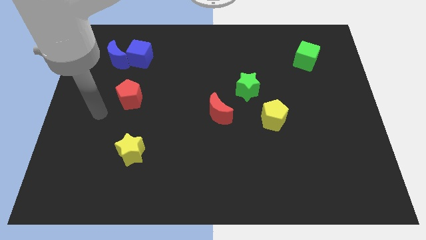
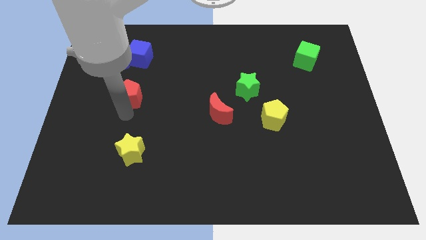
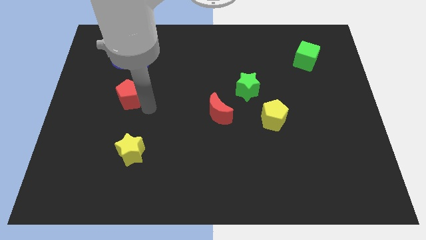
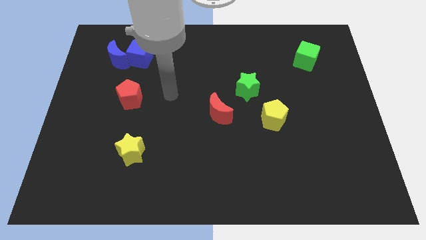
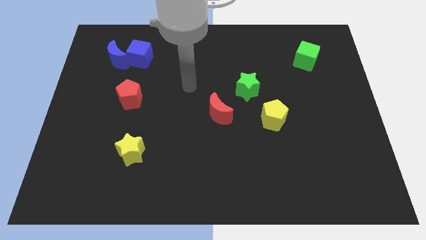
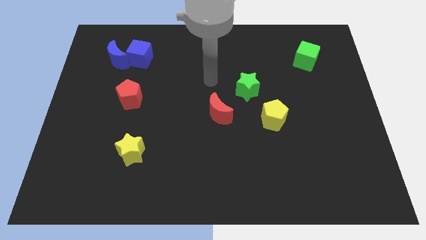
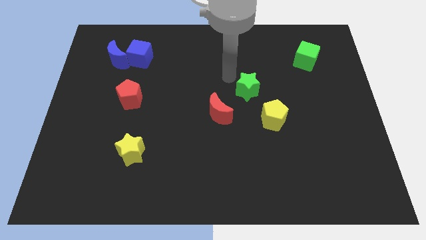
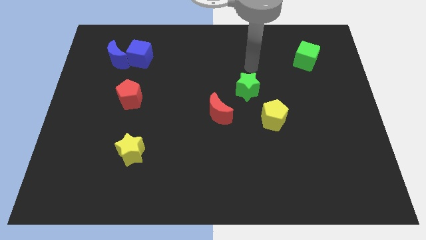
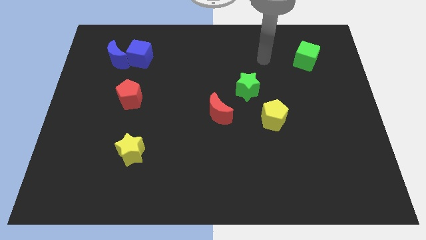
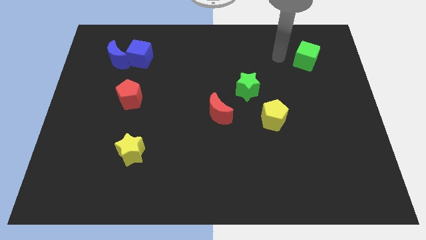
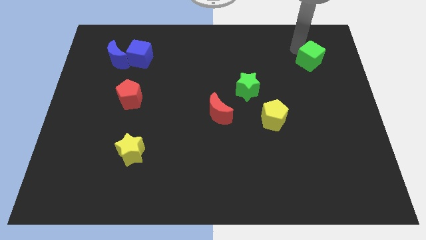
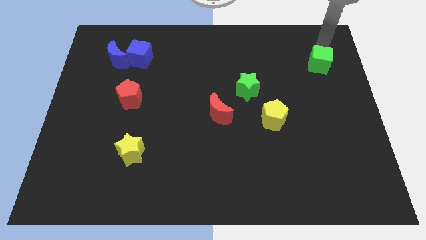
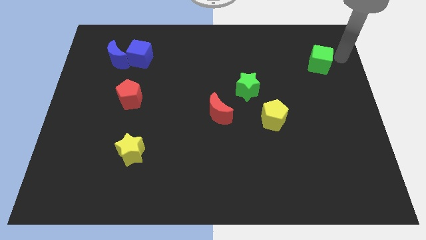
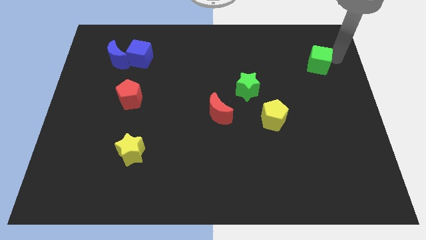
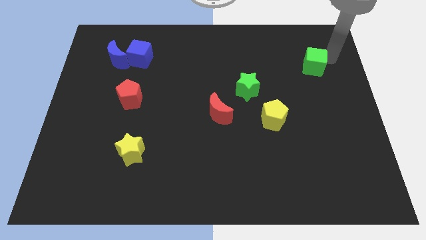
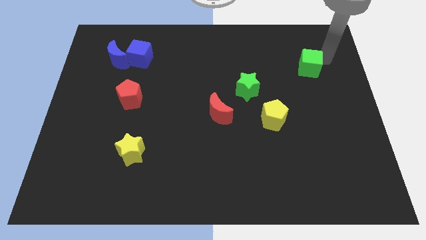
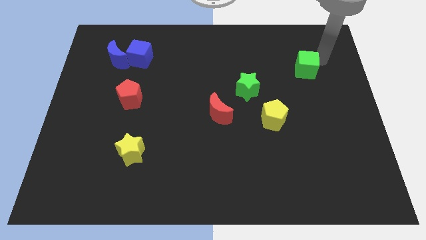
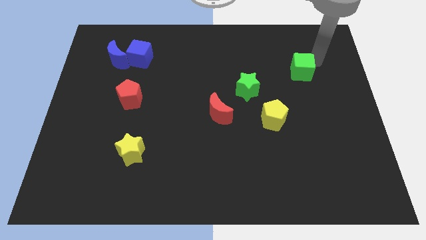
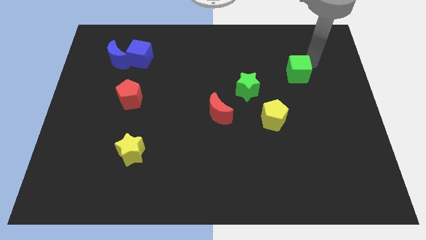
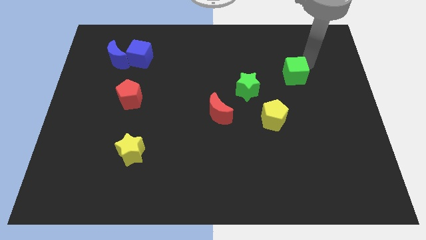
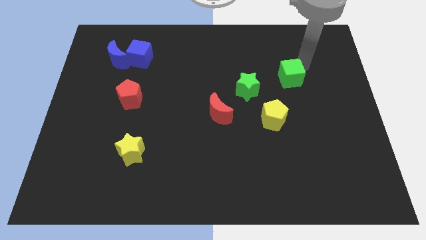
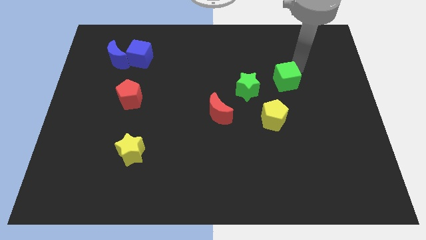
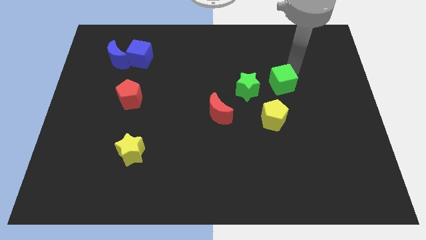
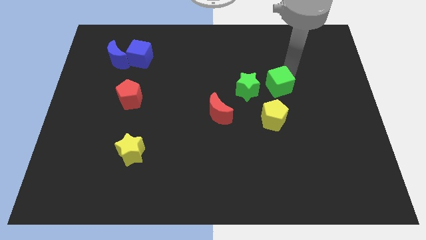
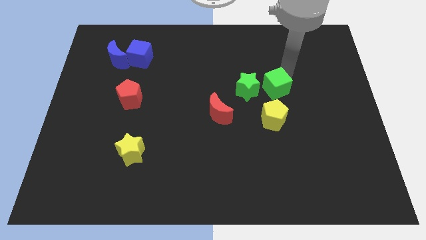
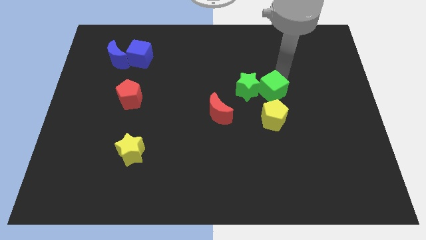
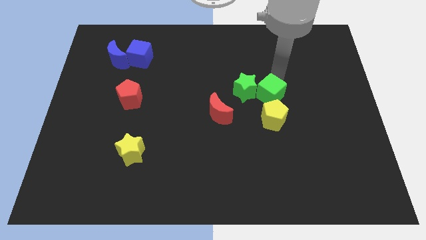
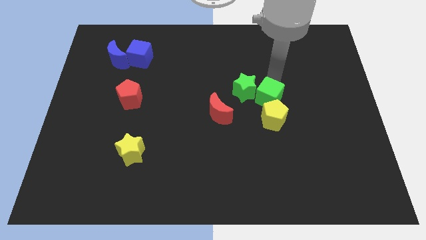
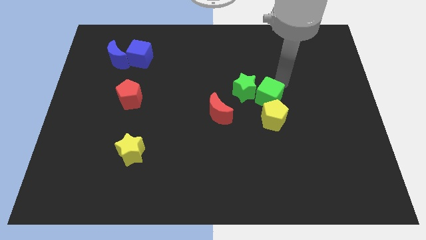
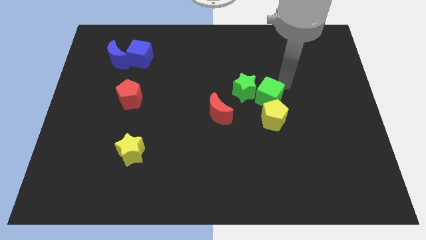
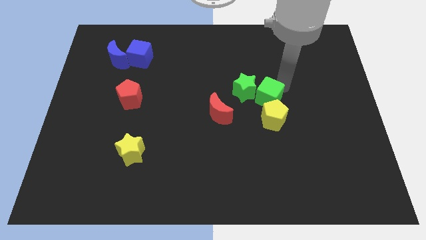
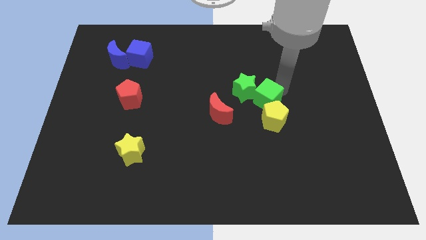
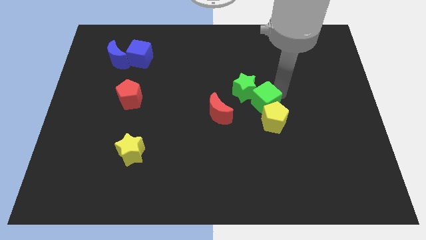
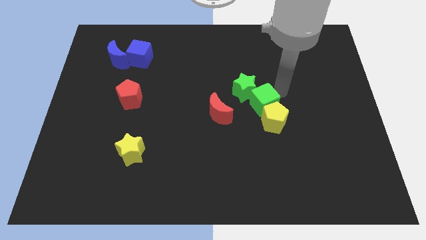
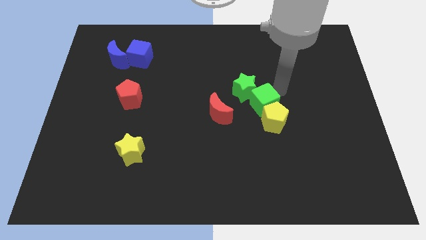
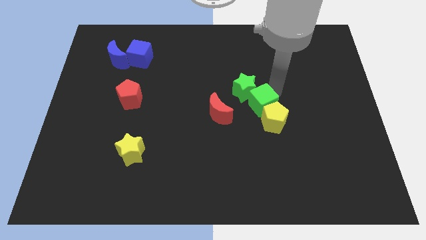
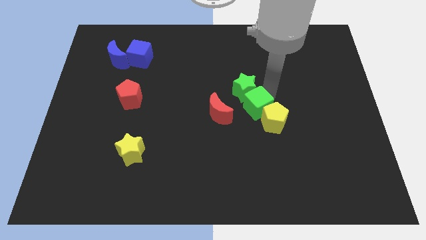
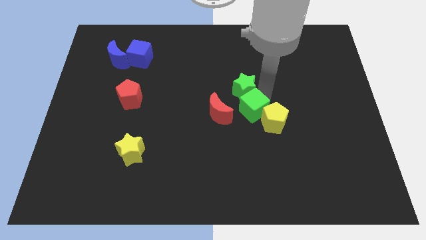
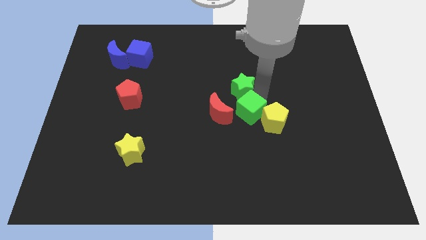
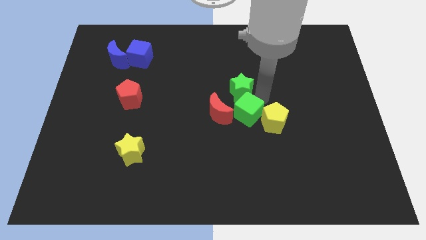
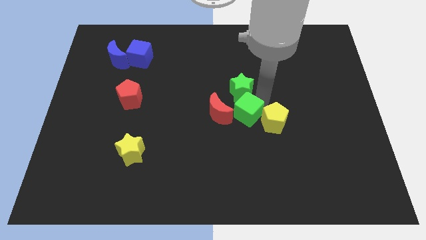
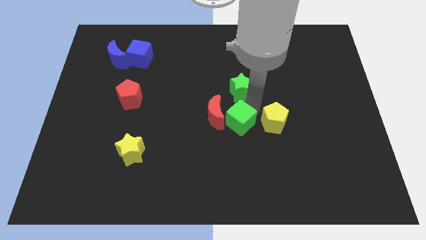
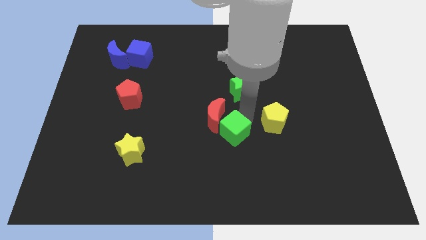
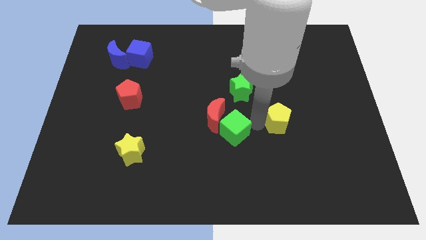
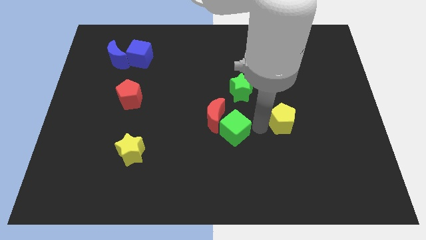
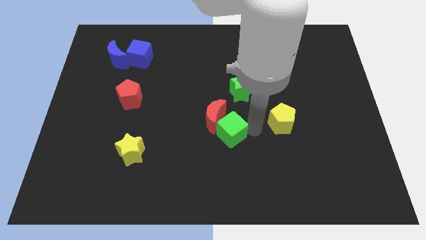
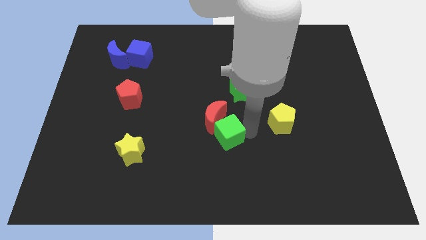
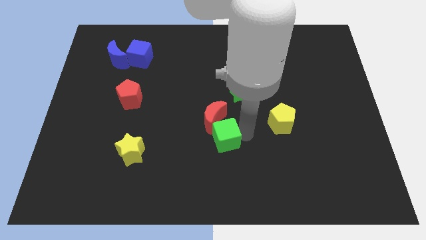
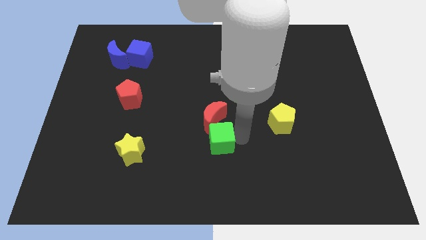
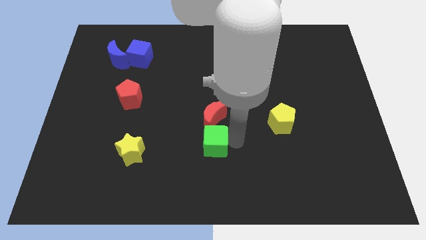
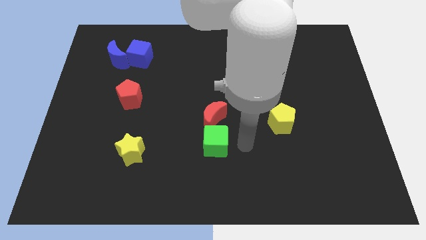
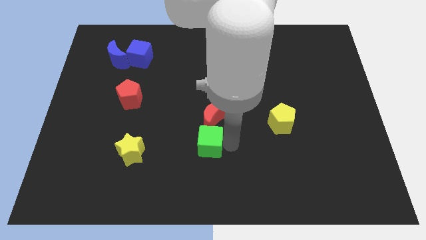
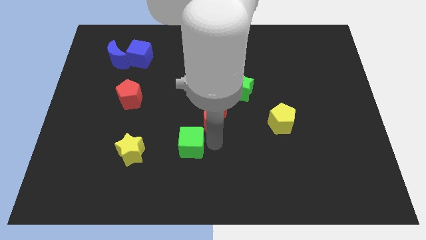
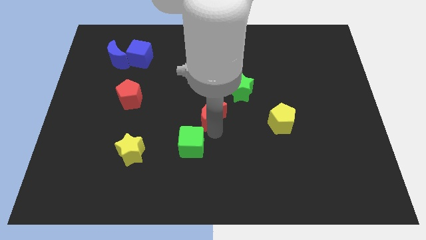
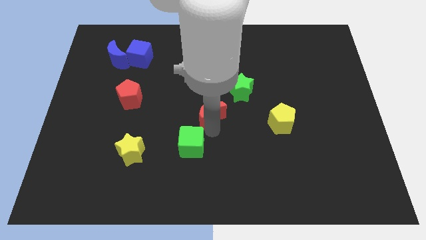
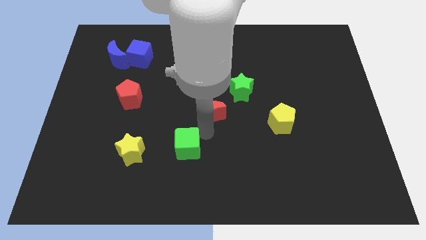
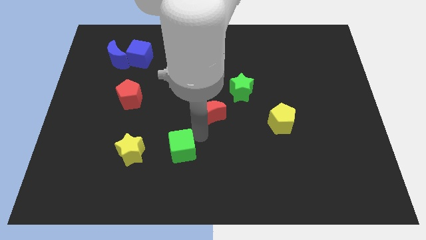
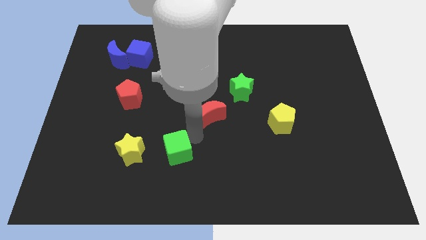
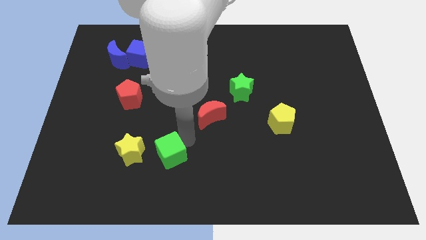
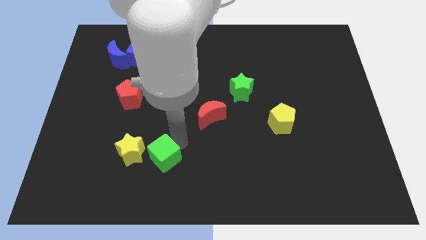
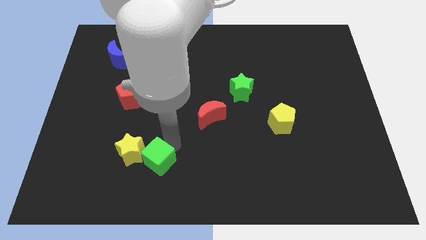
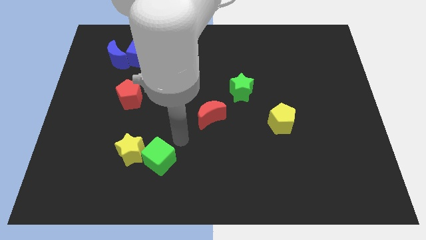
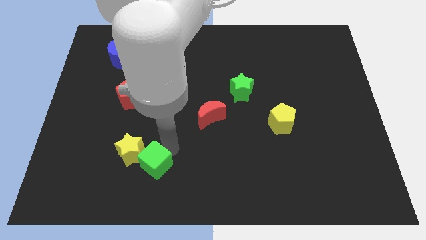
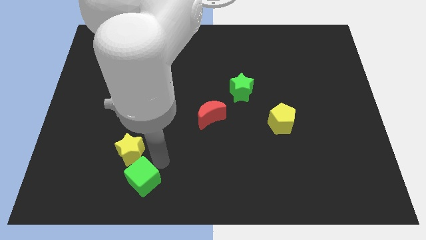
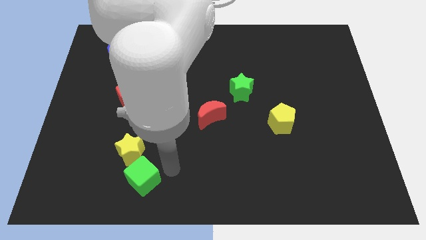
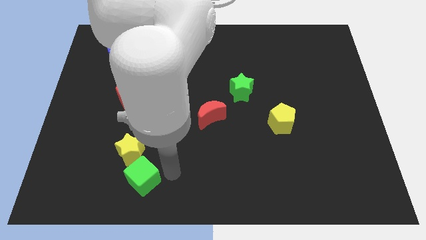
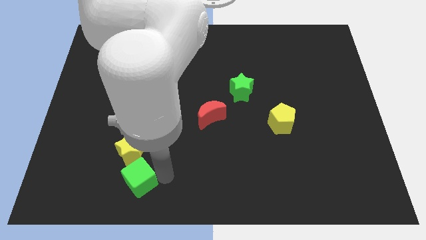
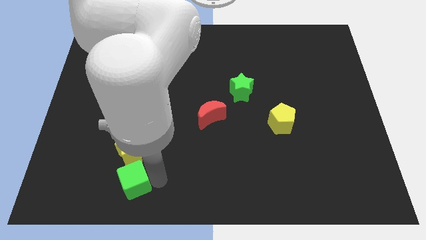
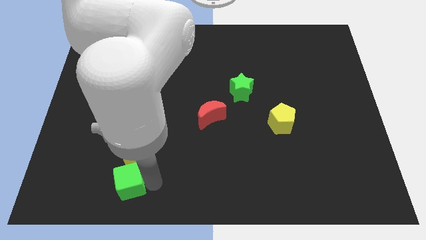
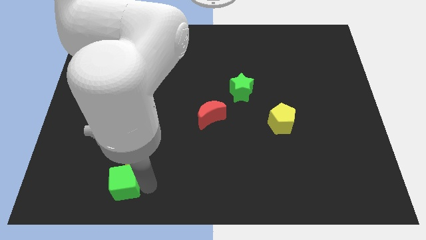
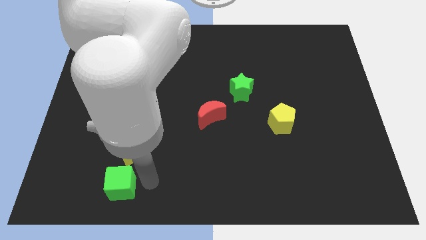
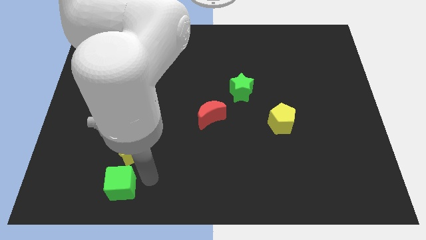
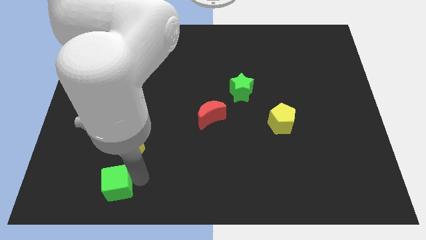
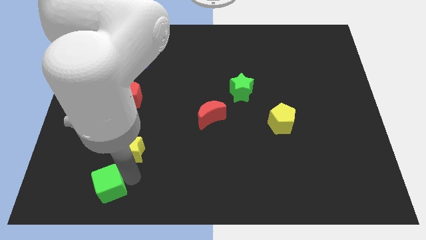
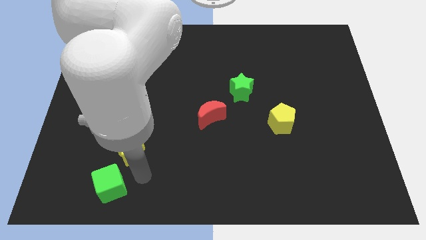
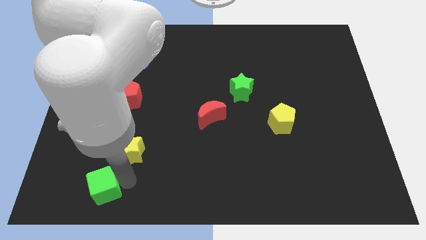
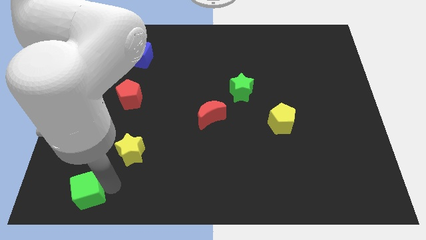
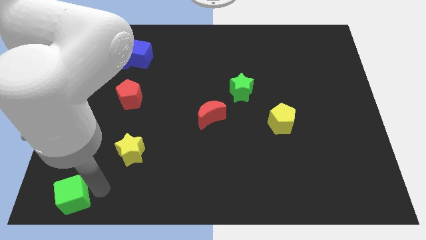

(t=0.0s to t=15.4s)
move the green cube to the lower left corner
